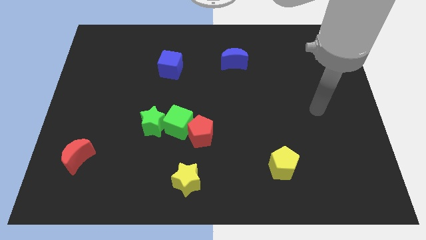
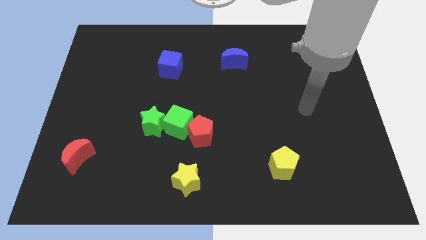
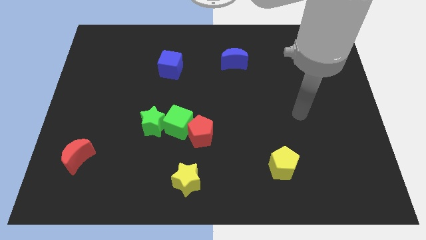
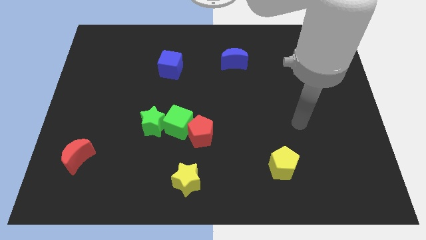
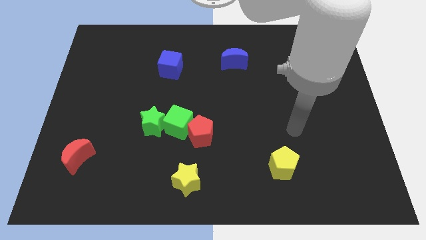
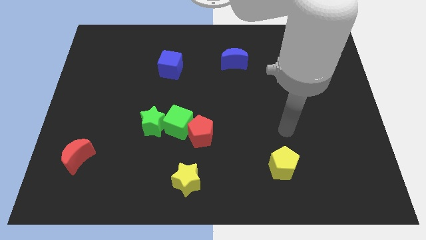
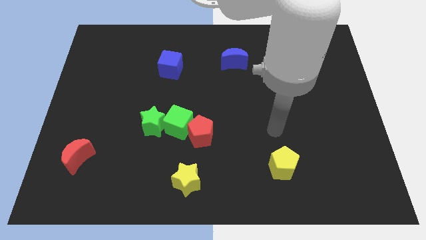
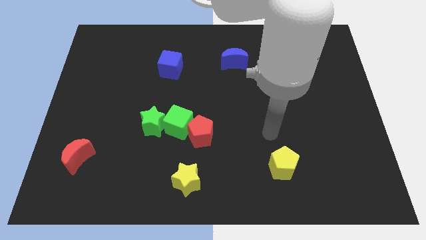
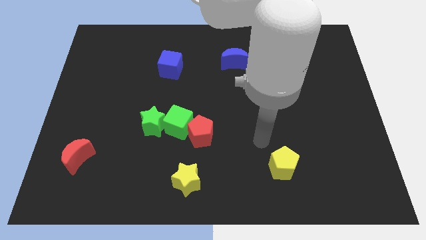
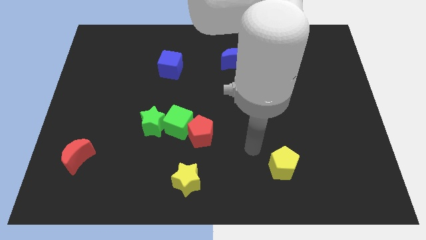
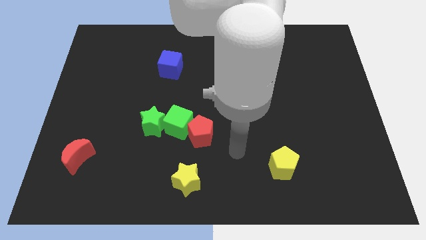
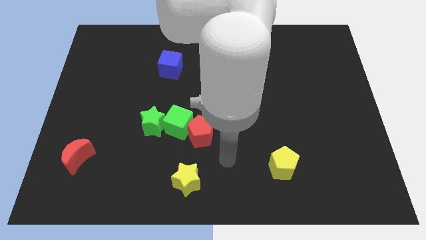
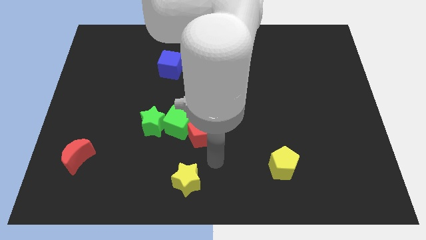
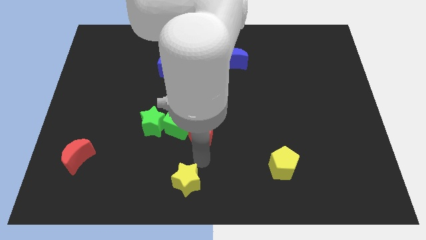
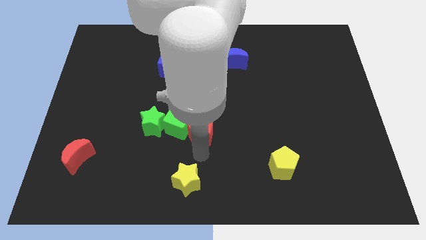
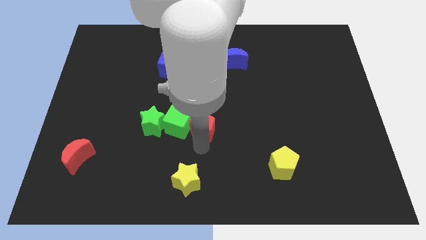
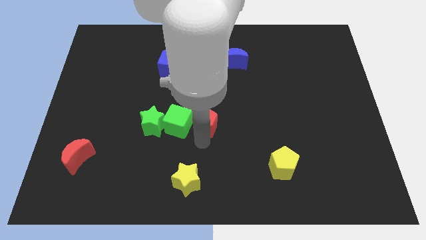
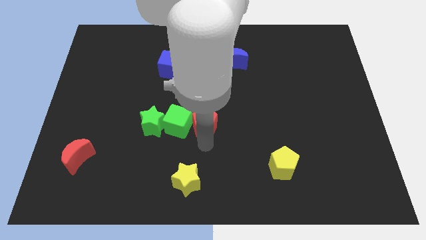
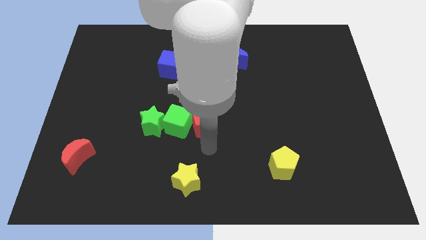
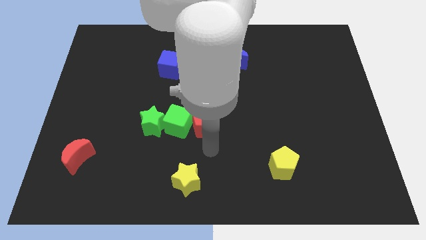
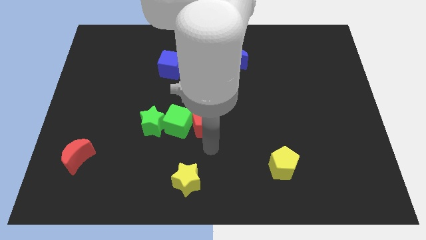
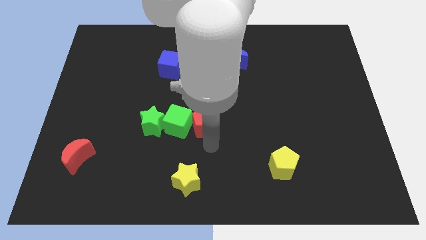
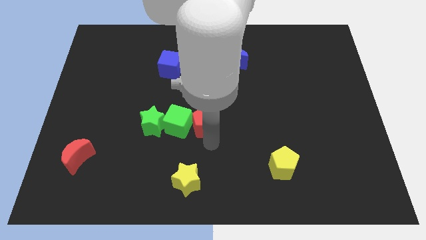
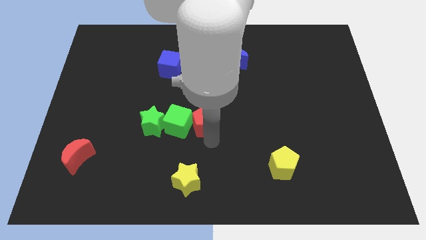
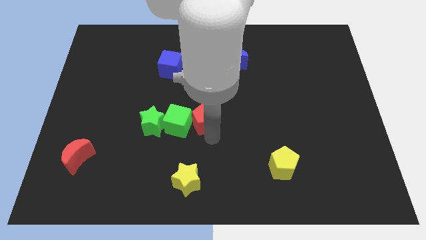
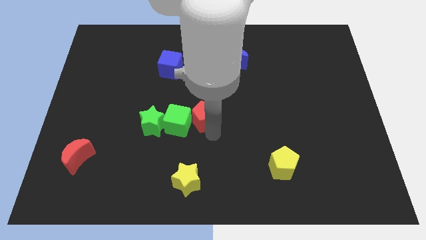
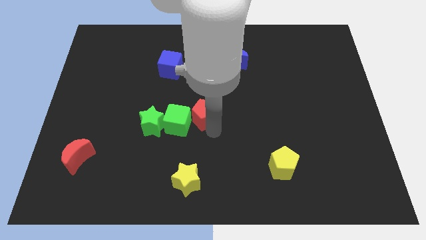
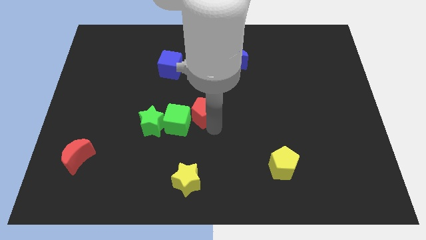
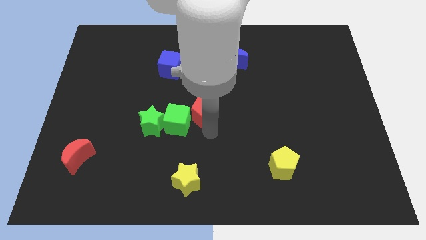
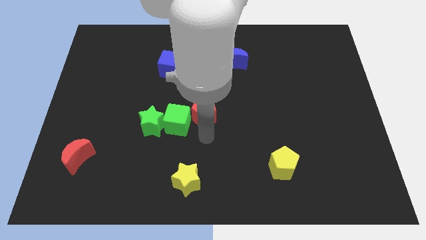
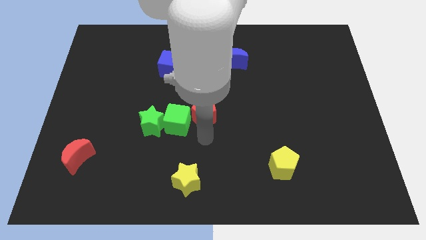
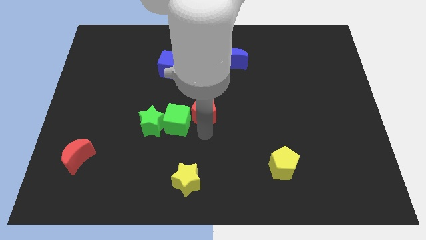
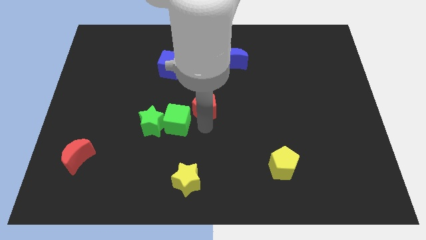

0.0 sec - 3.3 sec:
move the red pentagon a little upwards

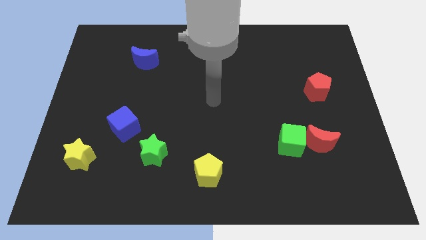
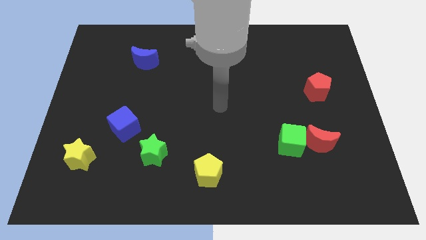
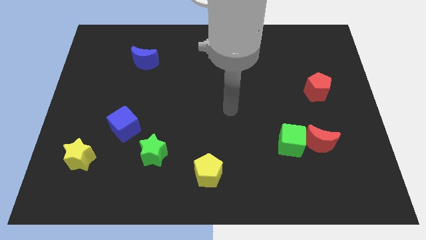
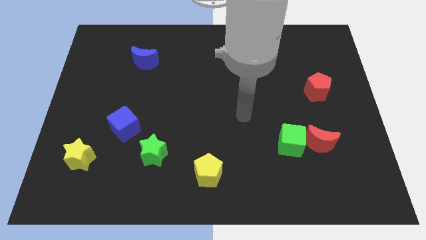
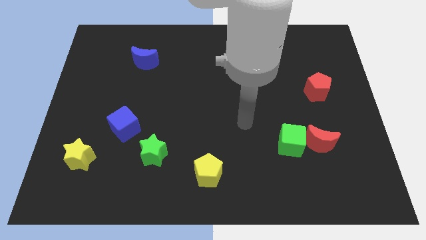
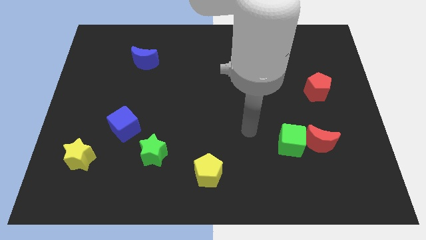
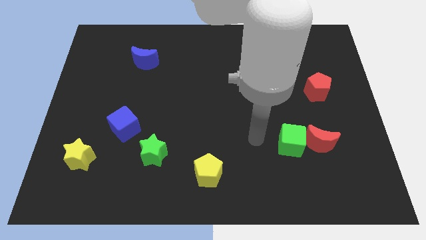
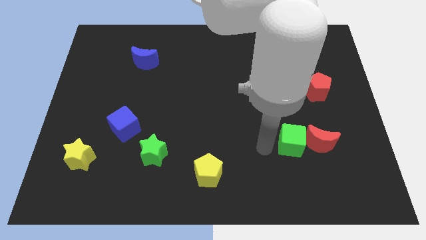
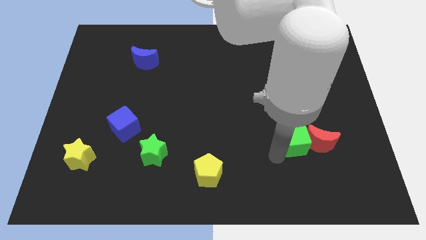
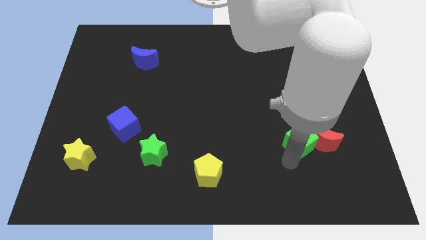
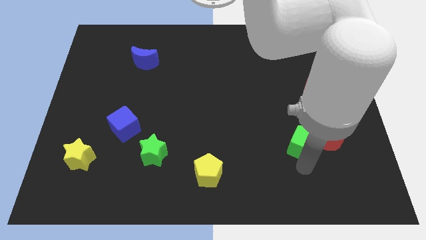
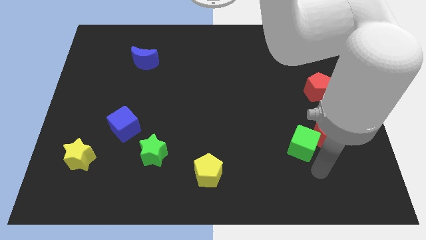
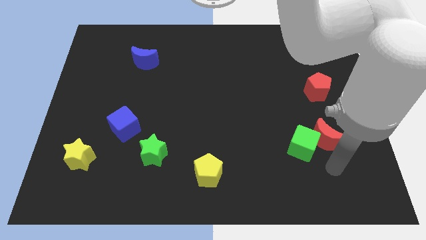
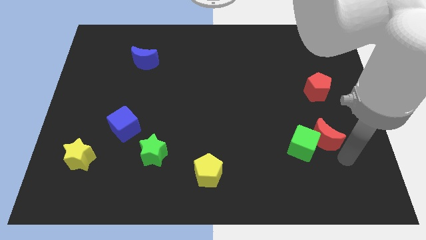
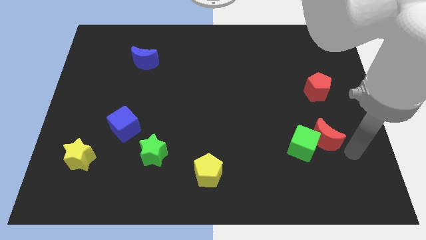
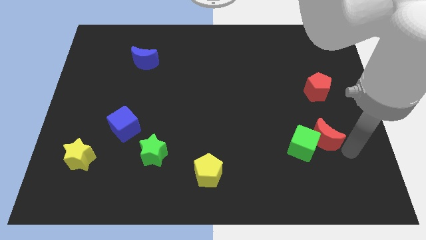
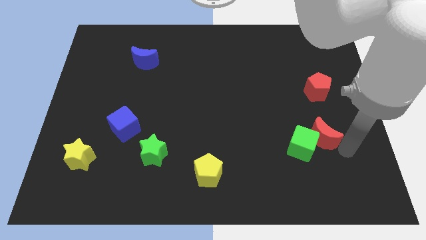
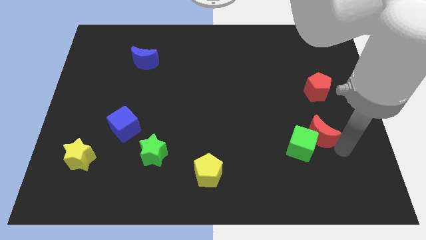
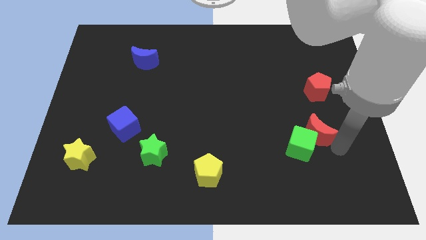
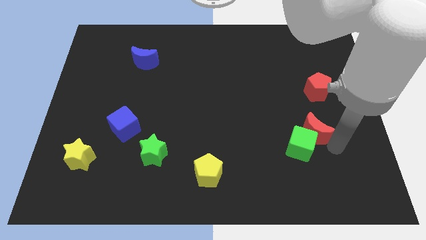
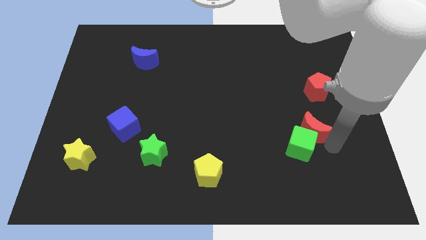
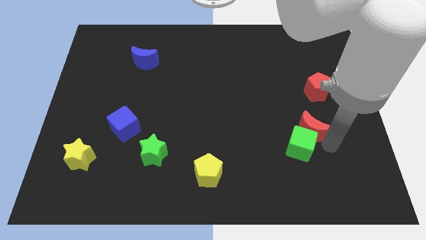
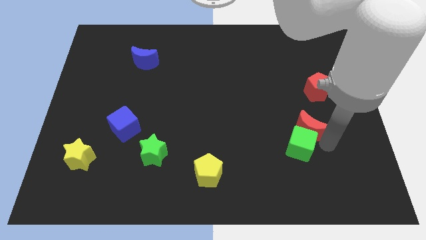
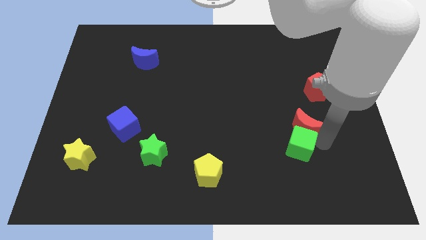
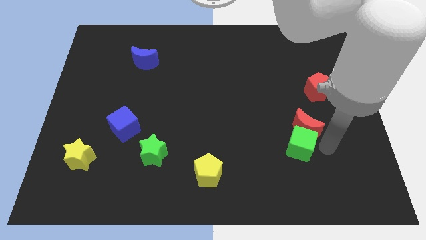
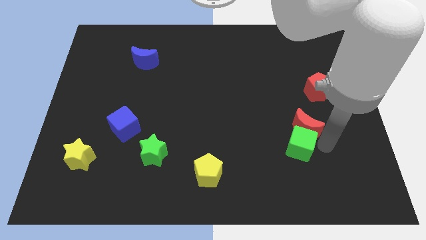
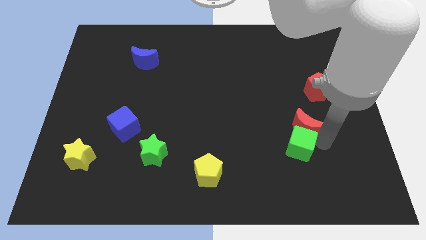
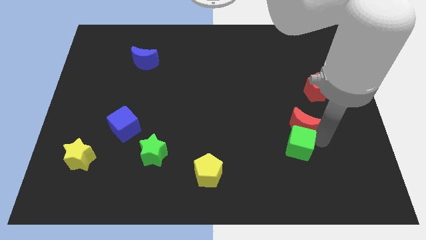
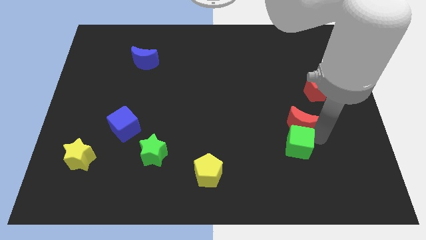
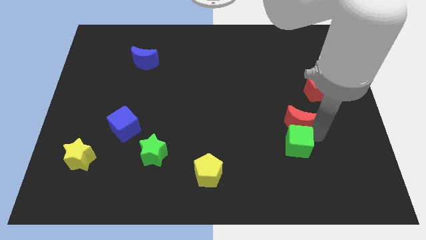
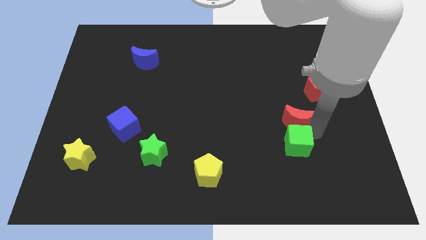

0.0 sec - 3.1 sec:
slightly push the red moon diagonally upwards and left

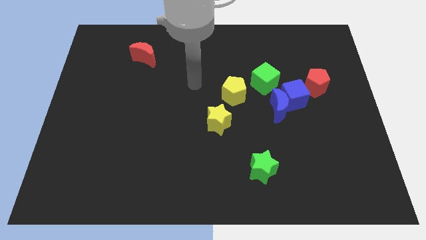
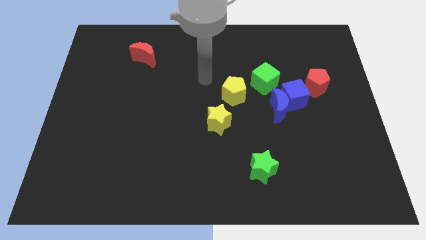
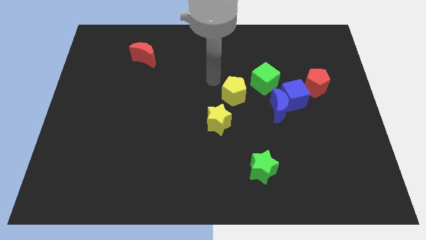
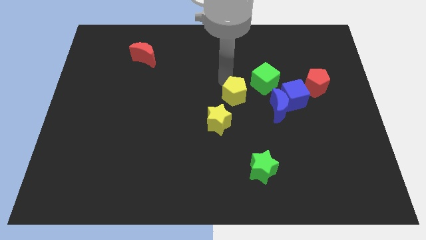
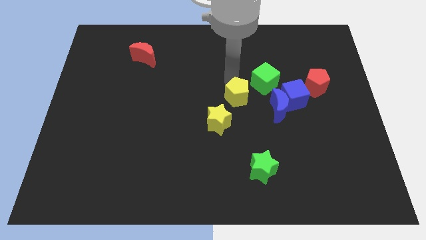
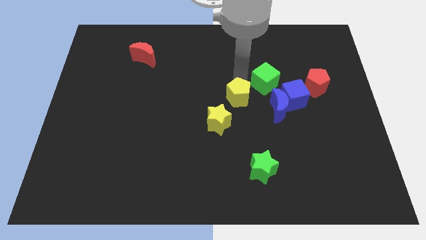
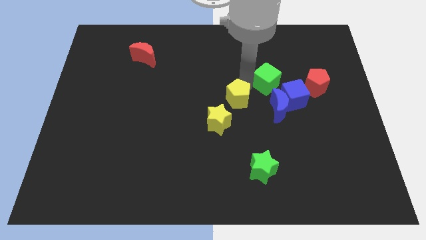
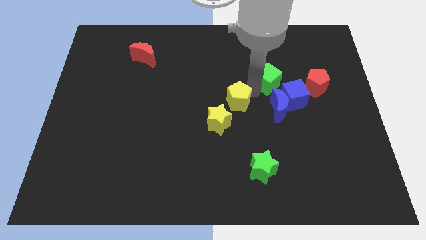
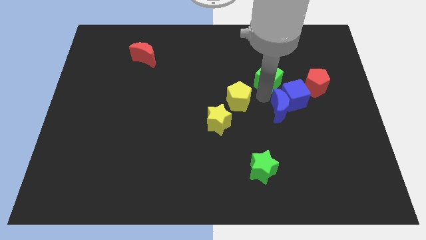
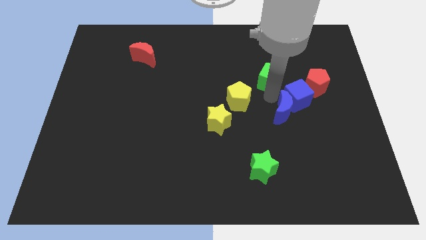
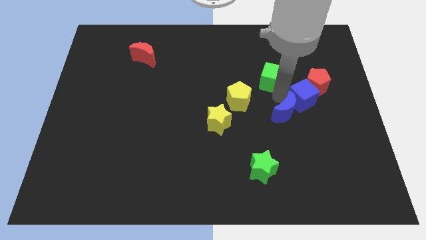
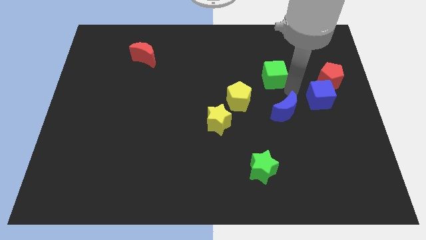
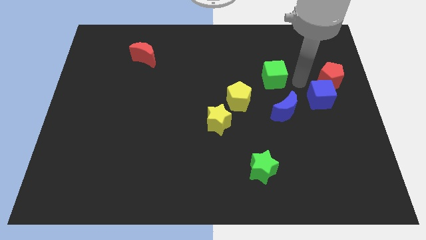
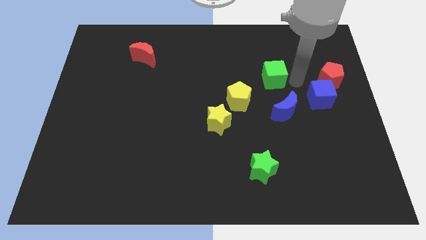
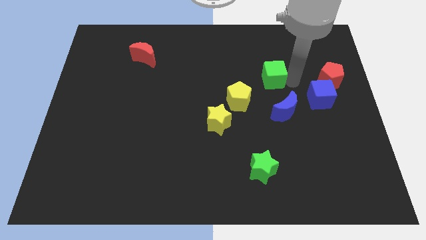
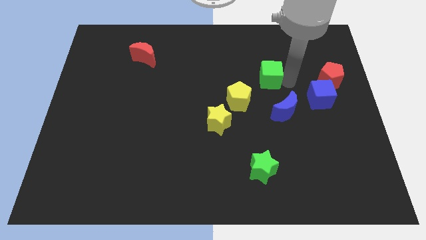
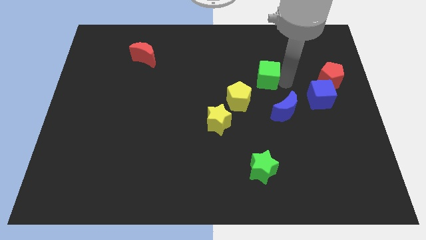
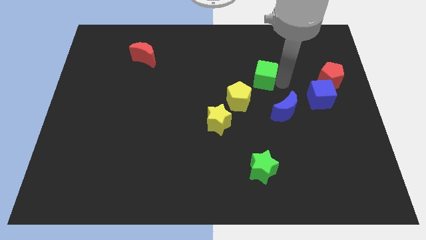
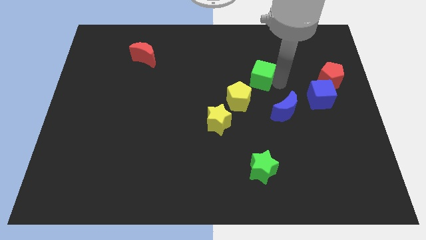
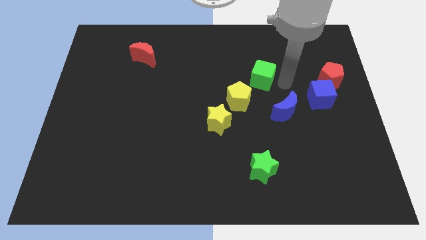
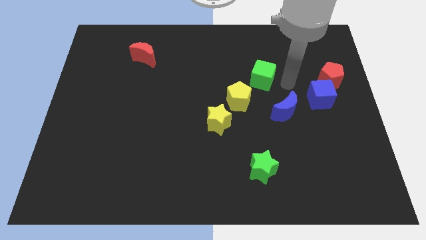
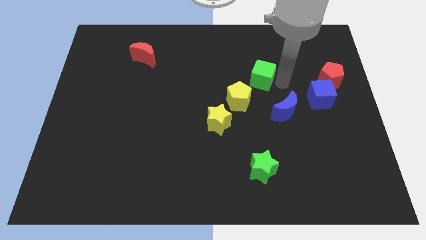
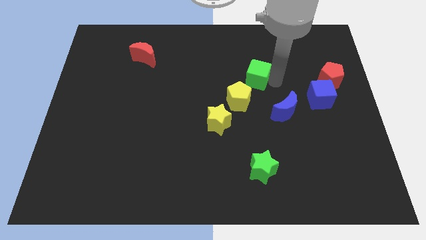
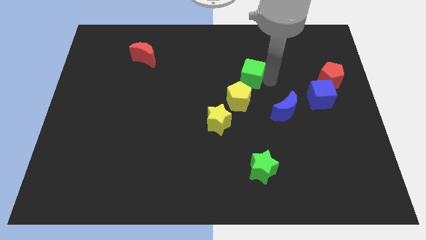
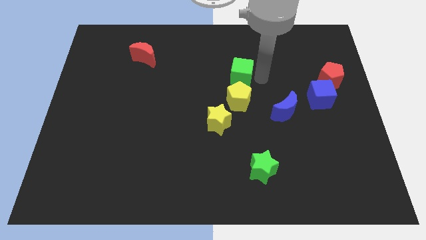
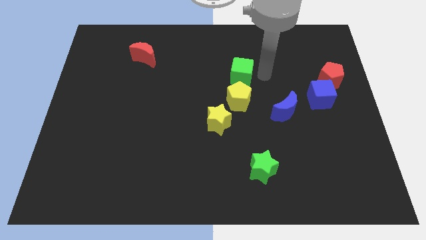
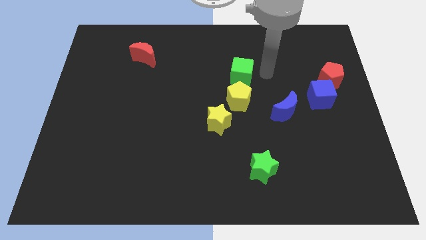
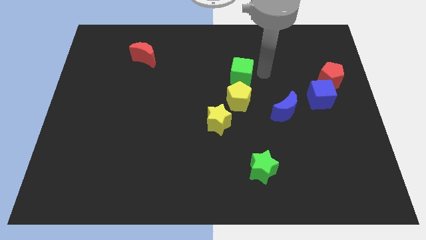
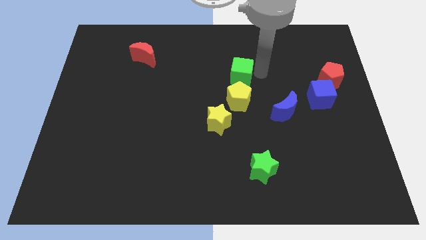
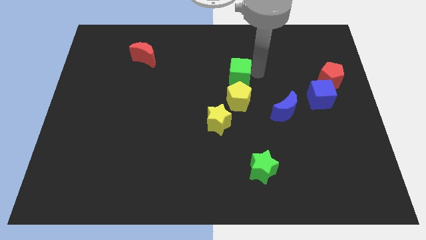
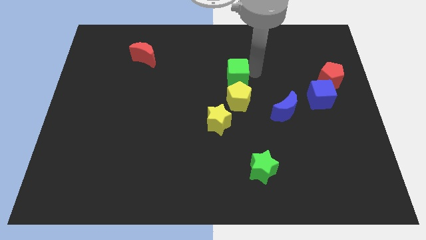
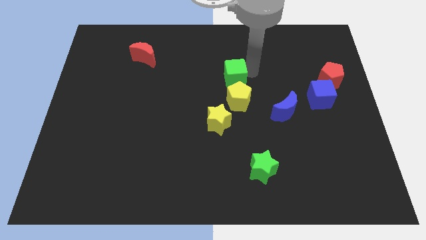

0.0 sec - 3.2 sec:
slide the green cube left a bit
